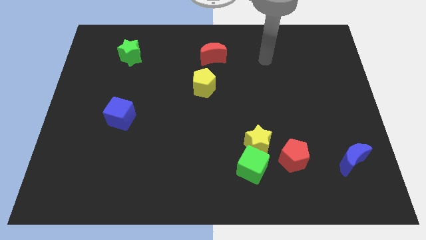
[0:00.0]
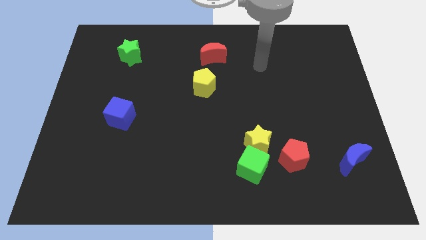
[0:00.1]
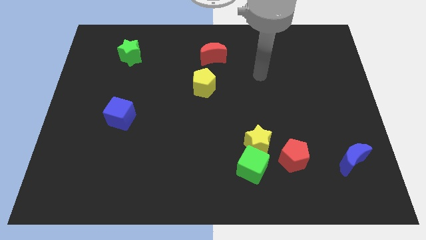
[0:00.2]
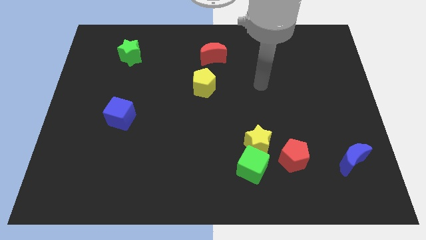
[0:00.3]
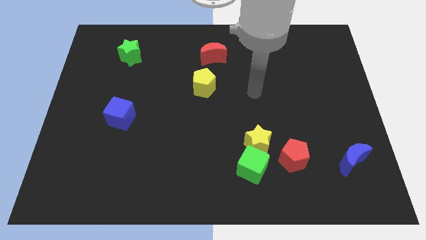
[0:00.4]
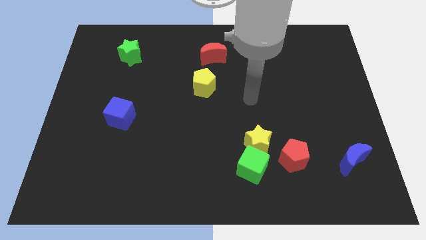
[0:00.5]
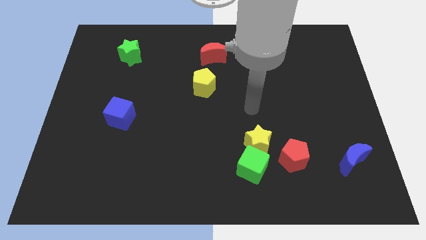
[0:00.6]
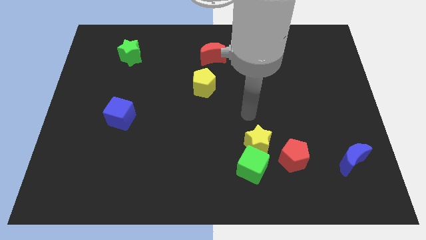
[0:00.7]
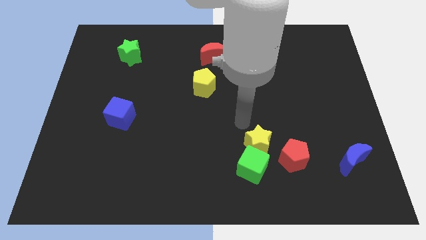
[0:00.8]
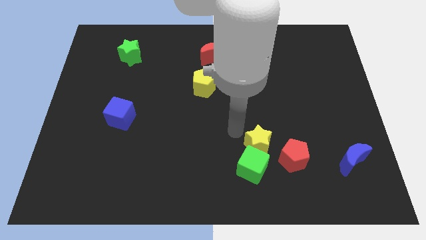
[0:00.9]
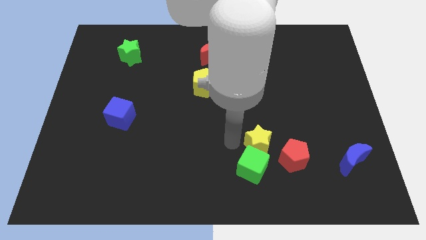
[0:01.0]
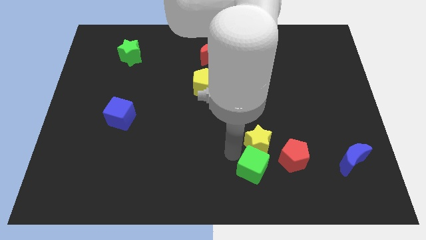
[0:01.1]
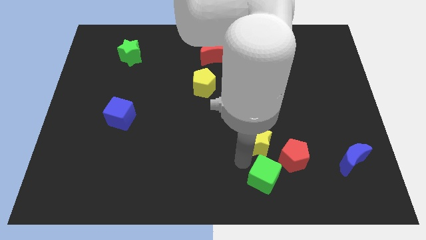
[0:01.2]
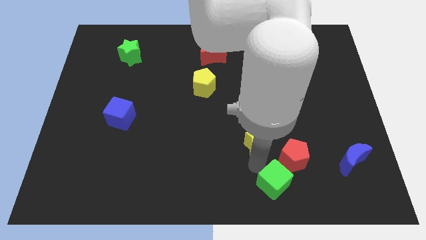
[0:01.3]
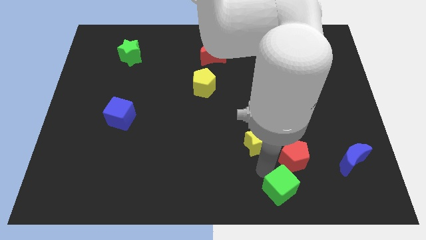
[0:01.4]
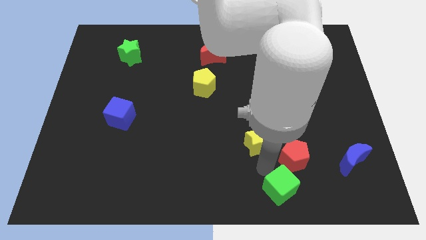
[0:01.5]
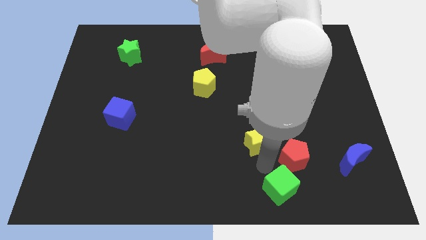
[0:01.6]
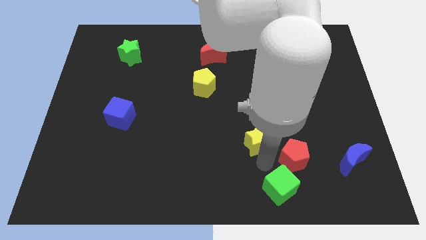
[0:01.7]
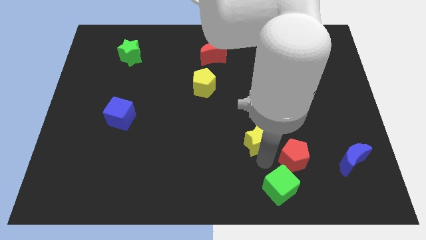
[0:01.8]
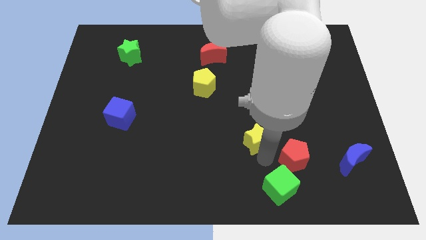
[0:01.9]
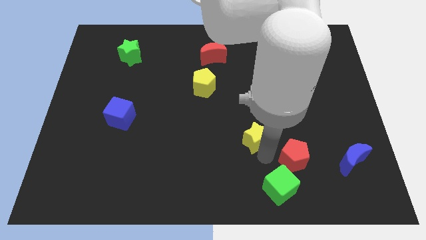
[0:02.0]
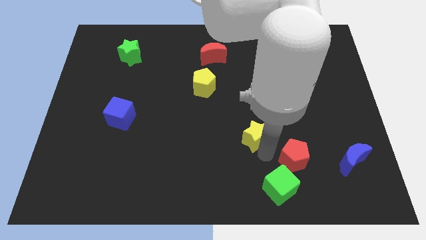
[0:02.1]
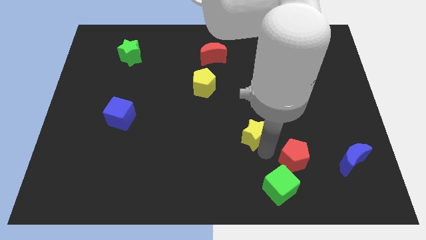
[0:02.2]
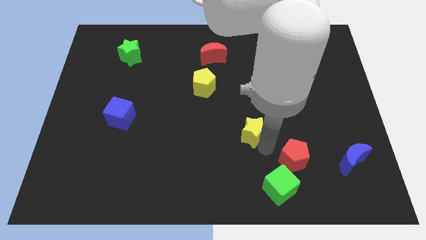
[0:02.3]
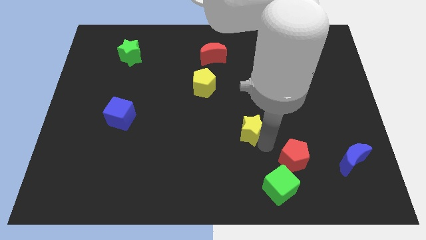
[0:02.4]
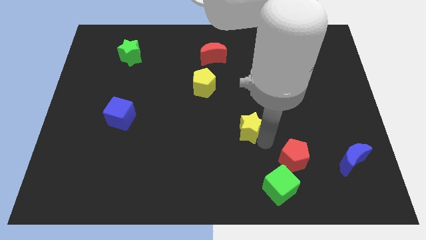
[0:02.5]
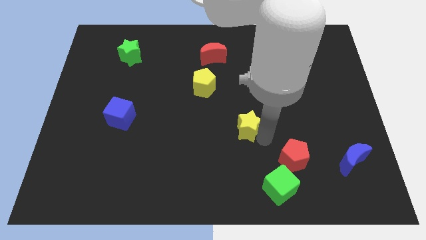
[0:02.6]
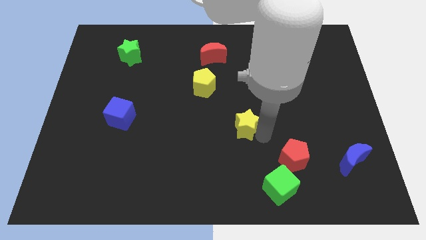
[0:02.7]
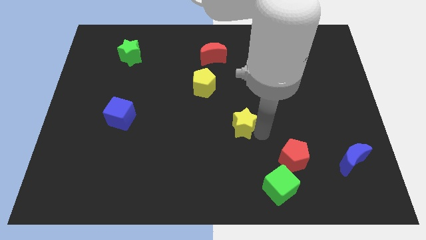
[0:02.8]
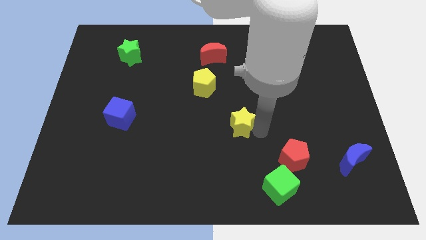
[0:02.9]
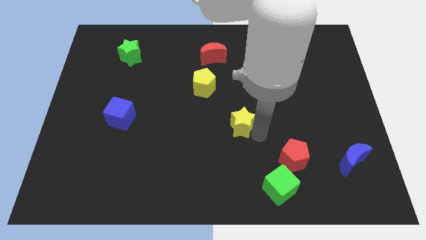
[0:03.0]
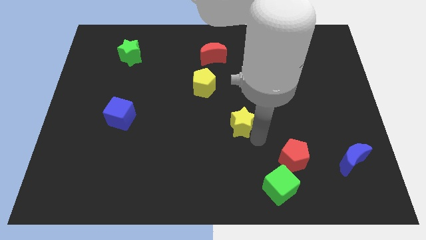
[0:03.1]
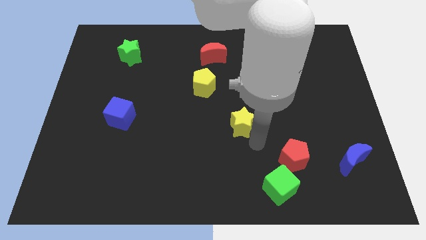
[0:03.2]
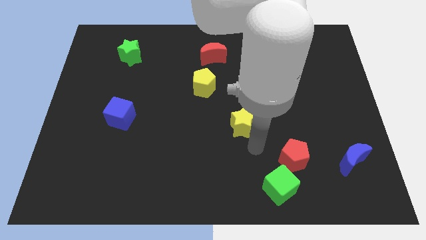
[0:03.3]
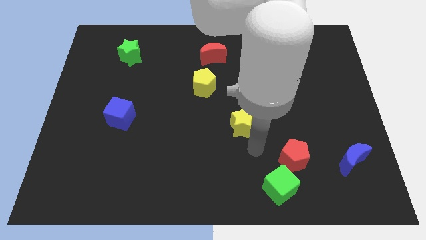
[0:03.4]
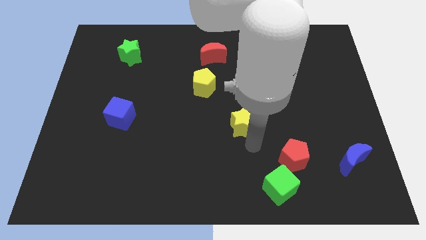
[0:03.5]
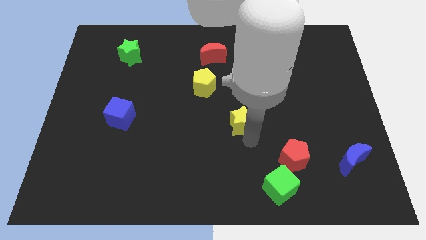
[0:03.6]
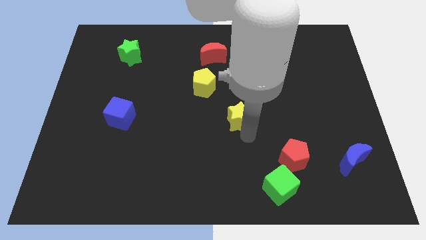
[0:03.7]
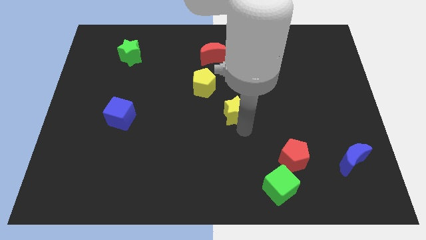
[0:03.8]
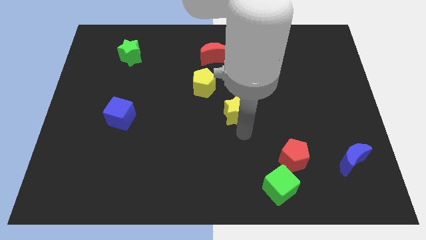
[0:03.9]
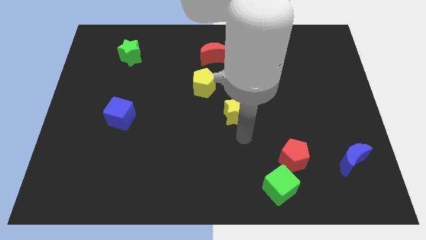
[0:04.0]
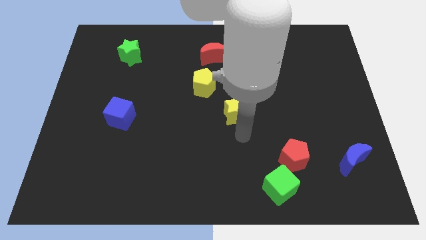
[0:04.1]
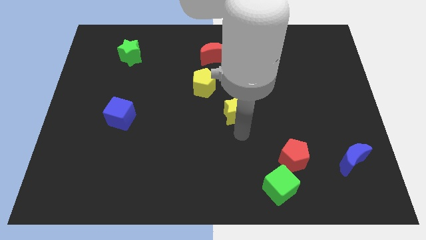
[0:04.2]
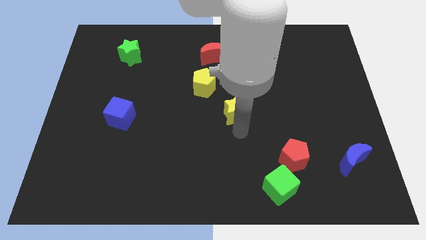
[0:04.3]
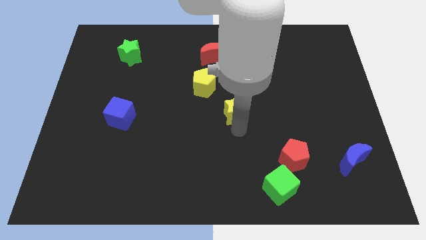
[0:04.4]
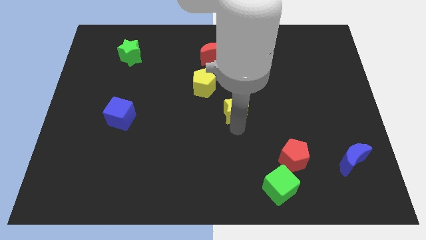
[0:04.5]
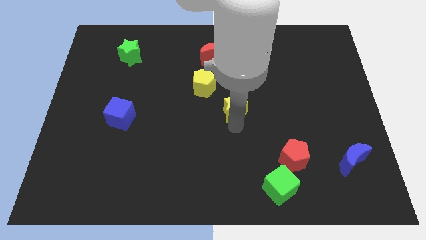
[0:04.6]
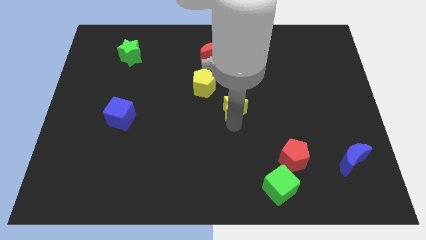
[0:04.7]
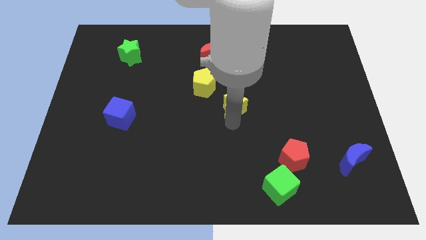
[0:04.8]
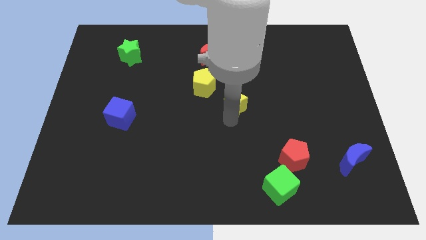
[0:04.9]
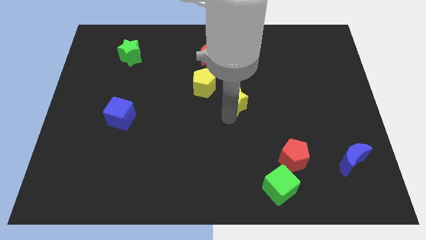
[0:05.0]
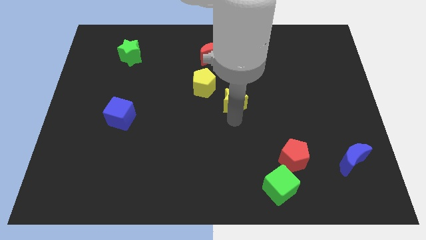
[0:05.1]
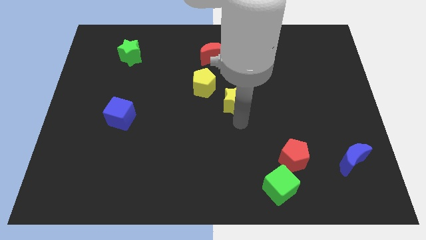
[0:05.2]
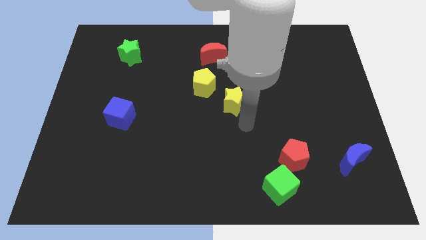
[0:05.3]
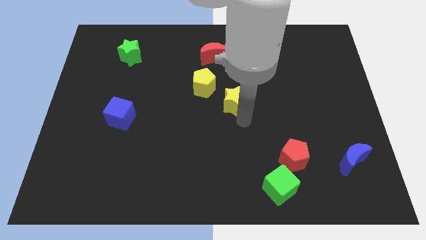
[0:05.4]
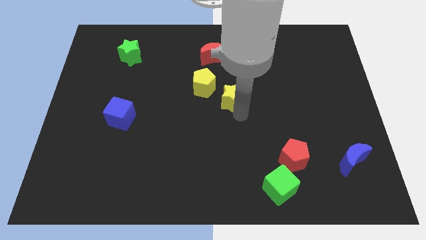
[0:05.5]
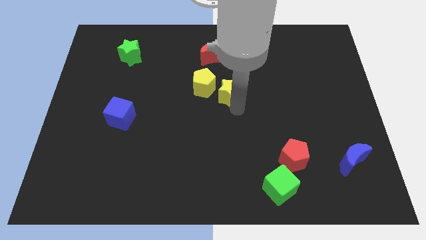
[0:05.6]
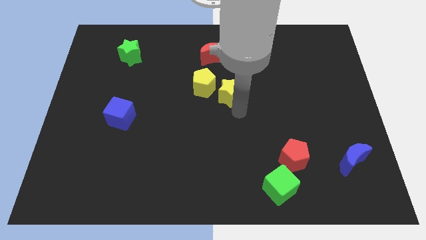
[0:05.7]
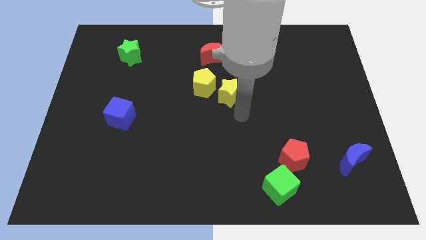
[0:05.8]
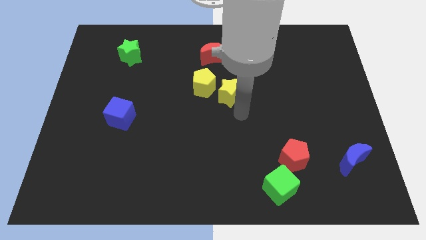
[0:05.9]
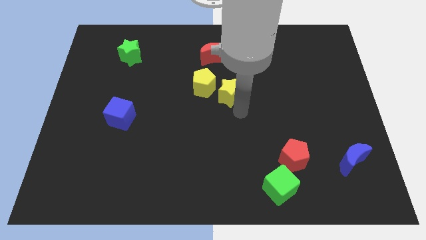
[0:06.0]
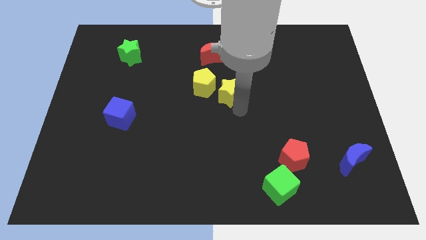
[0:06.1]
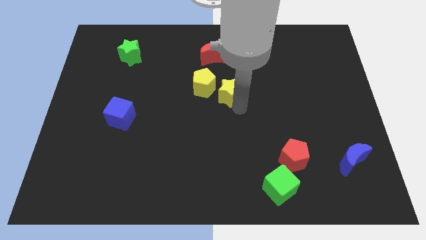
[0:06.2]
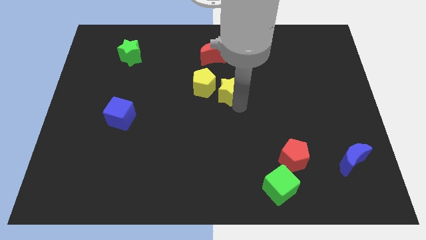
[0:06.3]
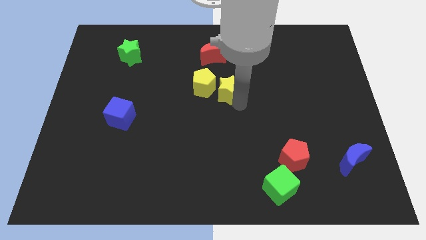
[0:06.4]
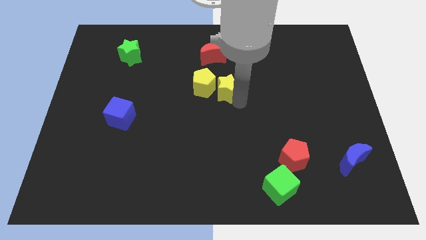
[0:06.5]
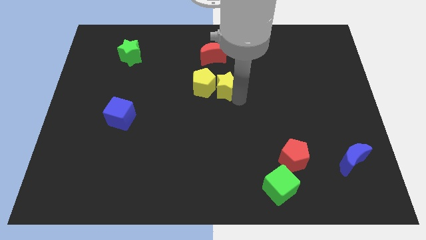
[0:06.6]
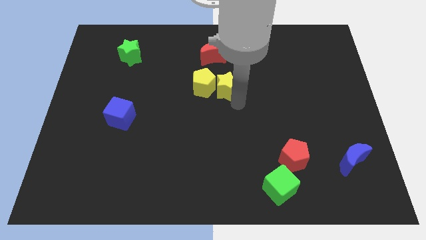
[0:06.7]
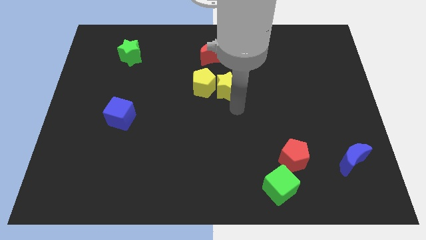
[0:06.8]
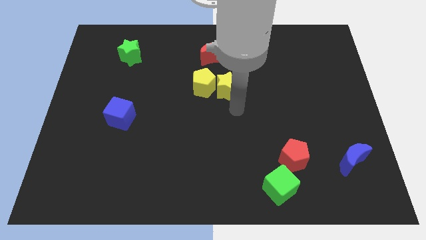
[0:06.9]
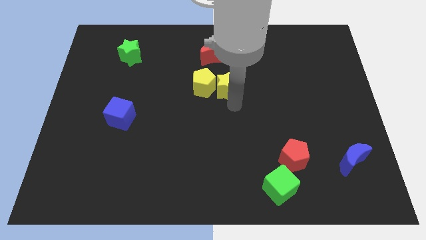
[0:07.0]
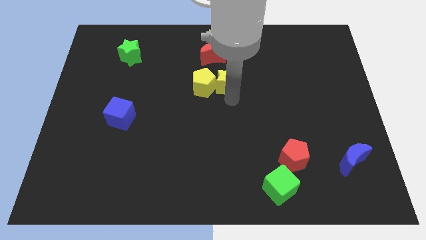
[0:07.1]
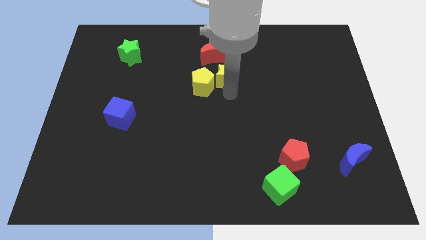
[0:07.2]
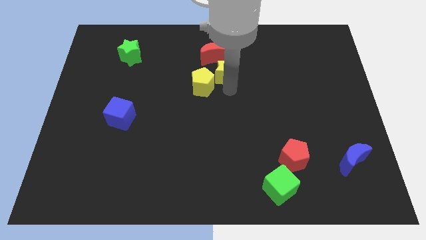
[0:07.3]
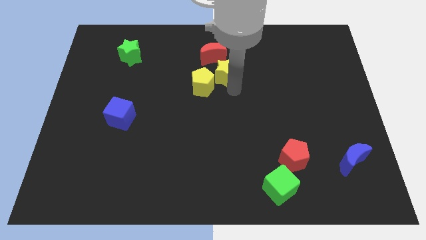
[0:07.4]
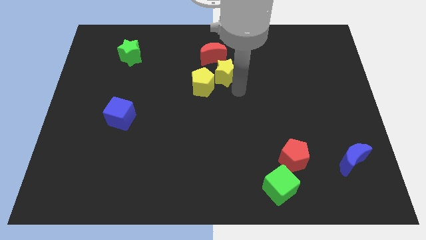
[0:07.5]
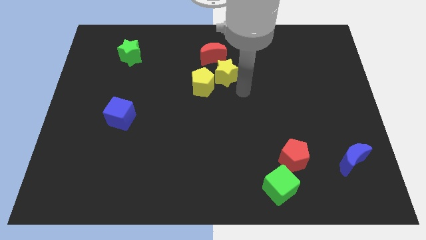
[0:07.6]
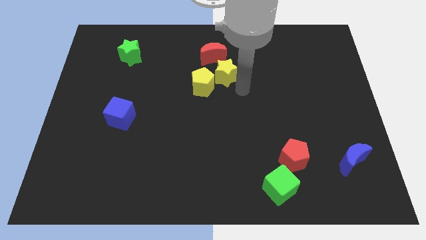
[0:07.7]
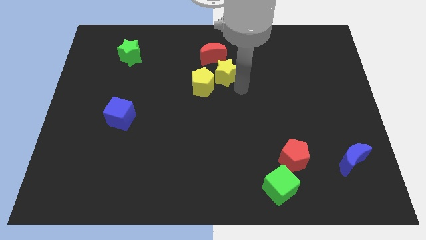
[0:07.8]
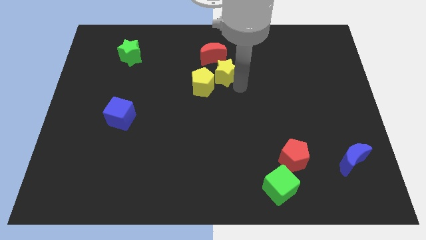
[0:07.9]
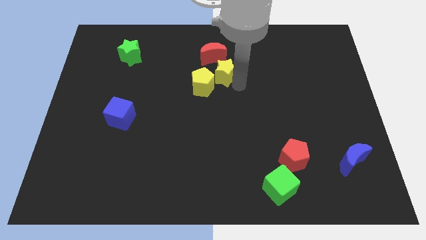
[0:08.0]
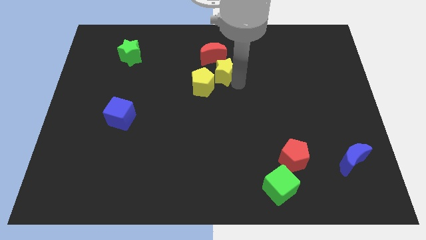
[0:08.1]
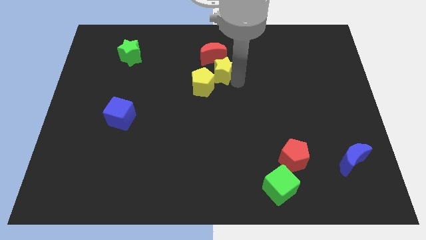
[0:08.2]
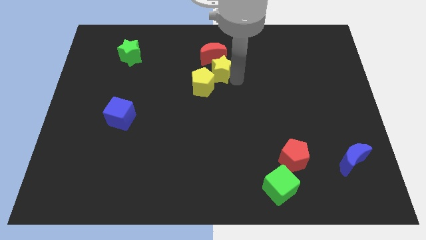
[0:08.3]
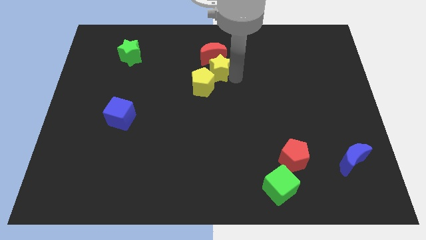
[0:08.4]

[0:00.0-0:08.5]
move the yellow star next to the red moon
